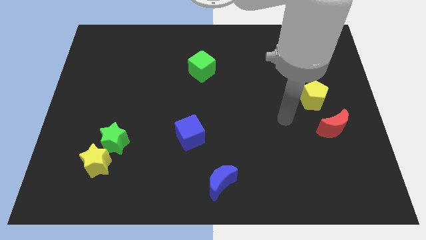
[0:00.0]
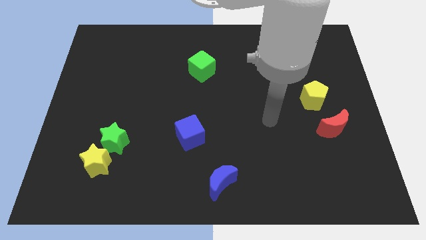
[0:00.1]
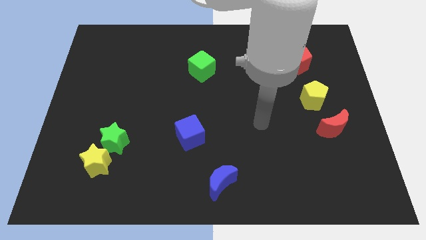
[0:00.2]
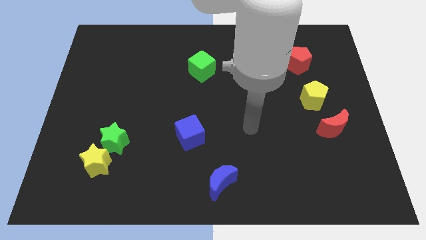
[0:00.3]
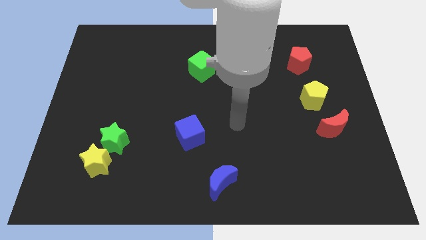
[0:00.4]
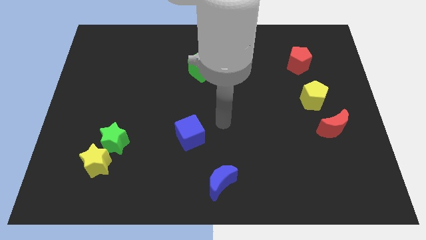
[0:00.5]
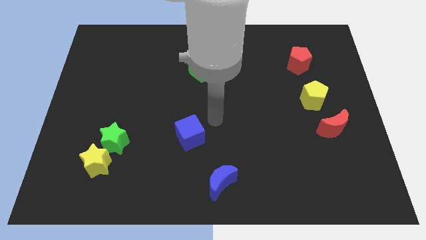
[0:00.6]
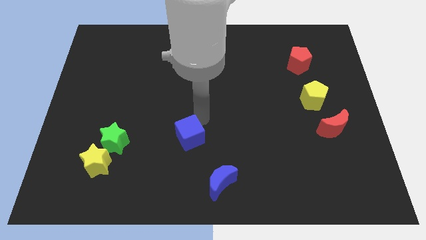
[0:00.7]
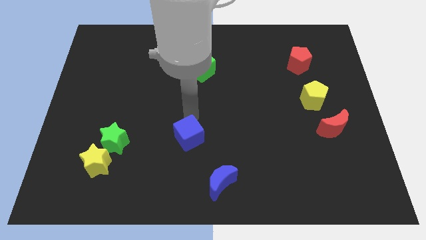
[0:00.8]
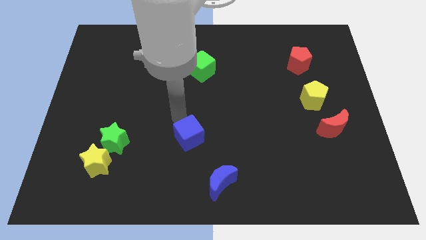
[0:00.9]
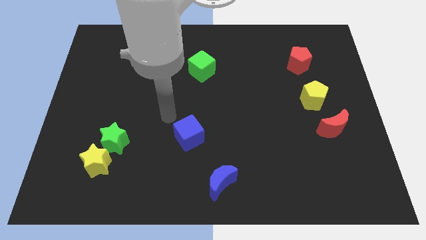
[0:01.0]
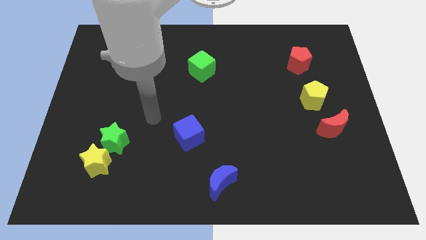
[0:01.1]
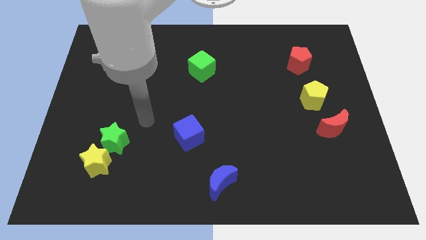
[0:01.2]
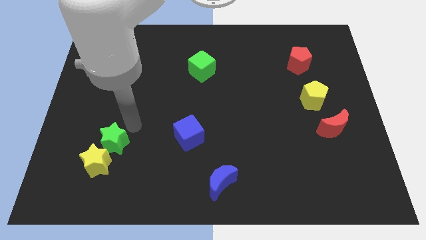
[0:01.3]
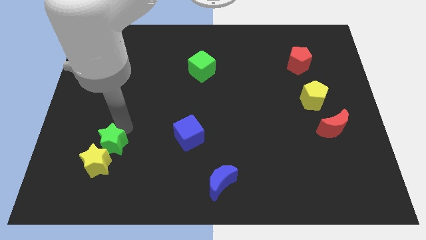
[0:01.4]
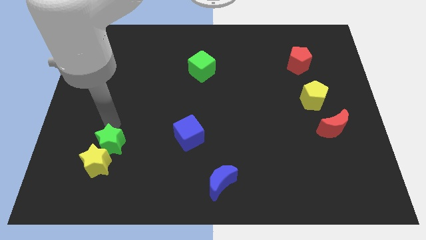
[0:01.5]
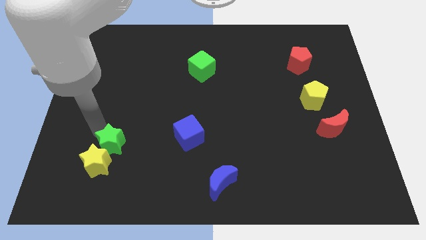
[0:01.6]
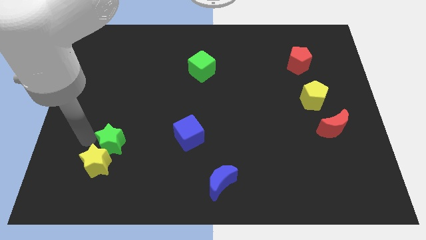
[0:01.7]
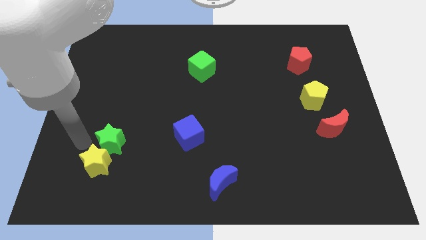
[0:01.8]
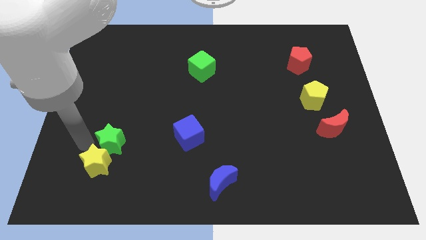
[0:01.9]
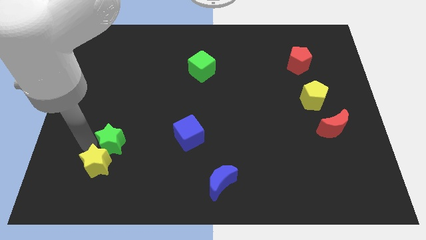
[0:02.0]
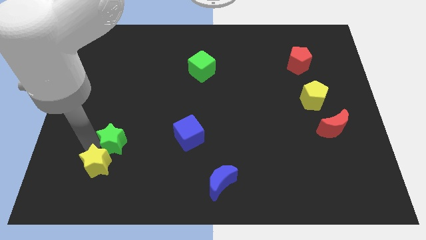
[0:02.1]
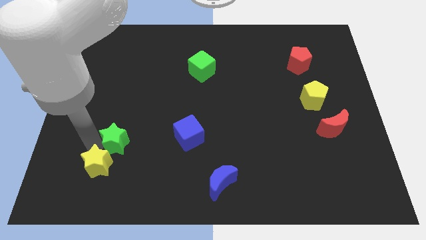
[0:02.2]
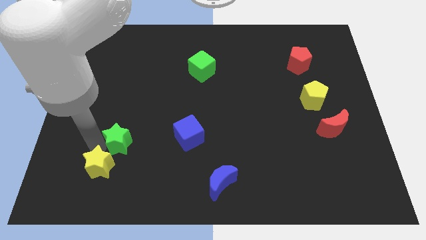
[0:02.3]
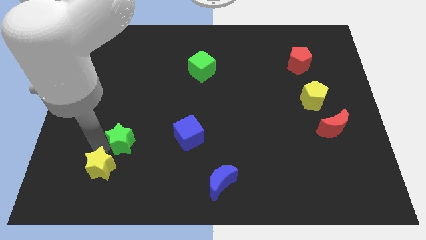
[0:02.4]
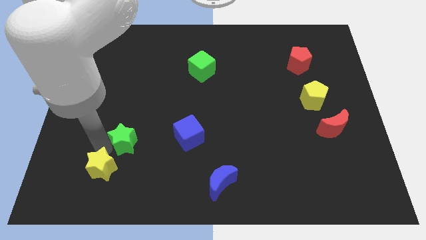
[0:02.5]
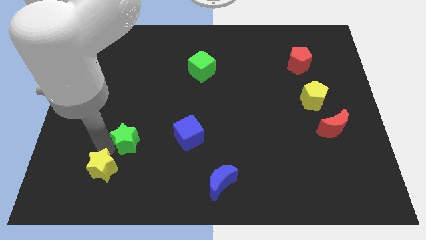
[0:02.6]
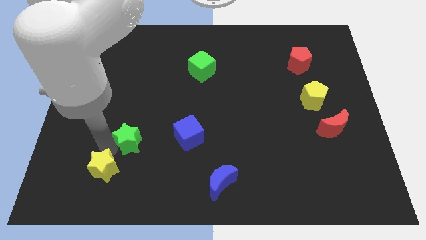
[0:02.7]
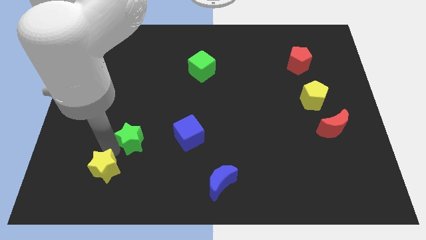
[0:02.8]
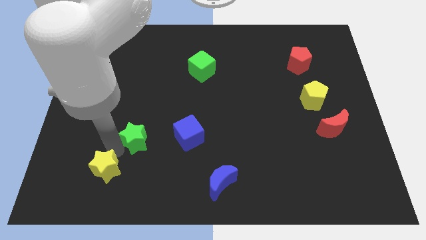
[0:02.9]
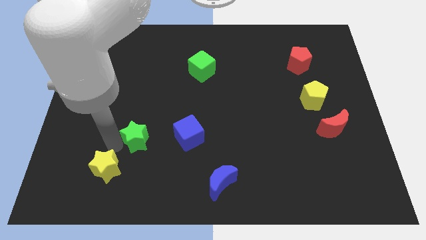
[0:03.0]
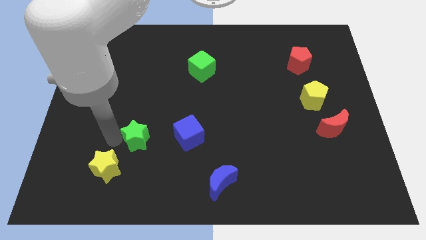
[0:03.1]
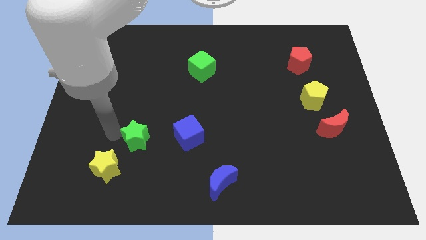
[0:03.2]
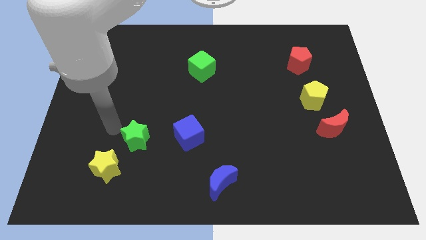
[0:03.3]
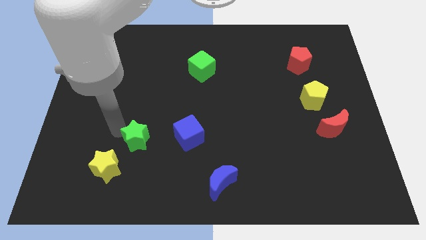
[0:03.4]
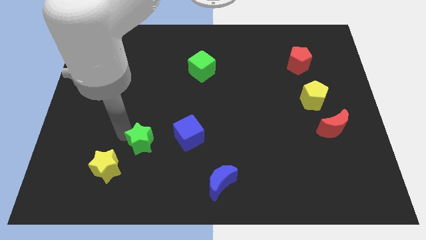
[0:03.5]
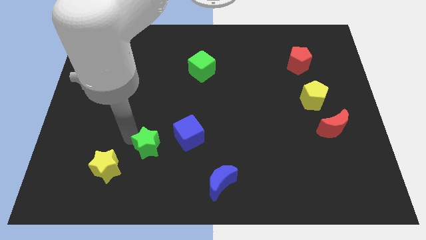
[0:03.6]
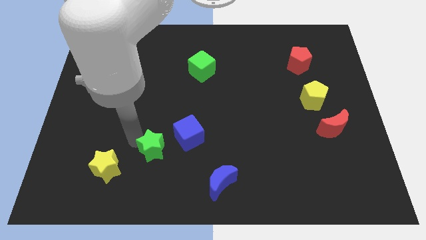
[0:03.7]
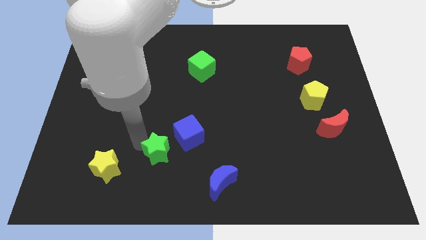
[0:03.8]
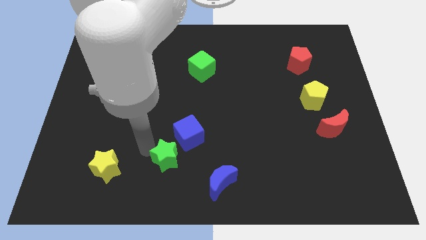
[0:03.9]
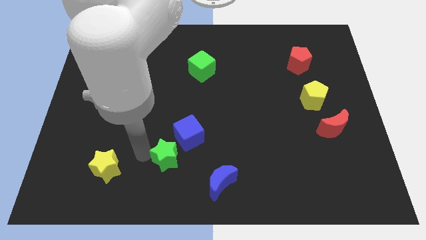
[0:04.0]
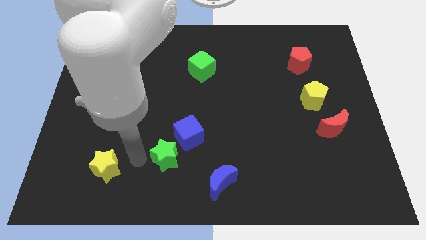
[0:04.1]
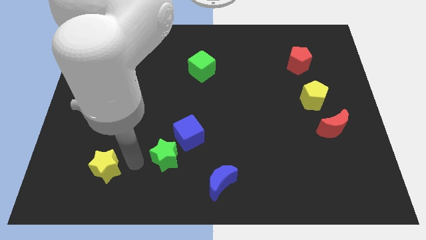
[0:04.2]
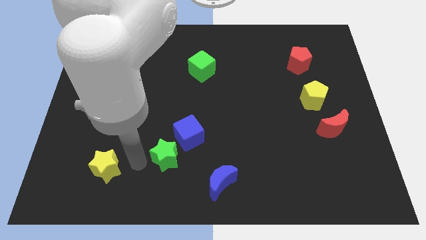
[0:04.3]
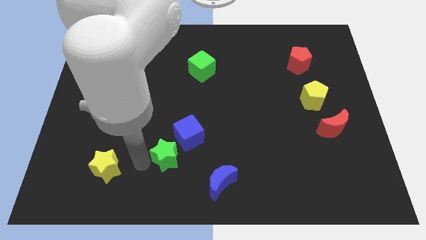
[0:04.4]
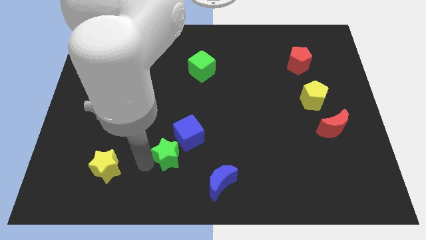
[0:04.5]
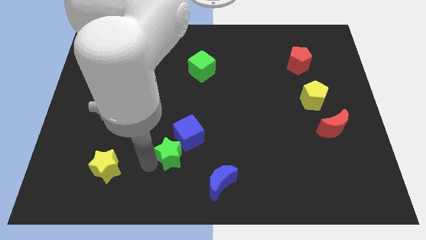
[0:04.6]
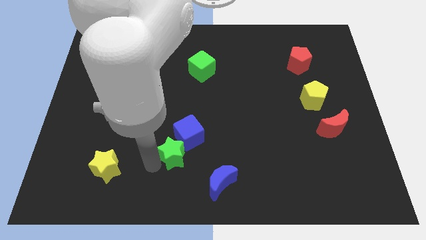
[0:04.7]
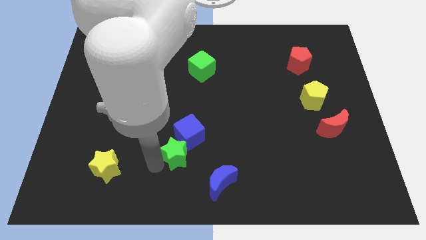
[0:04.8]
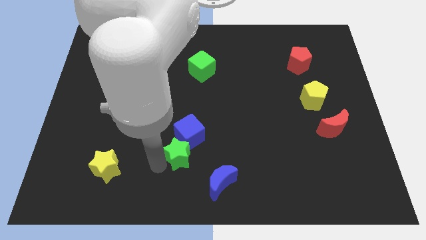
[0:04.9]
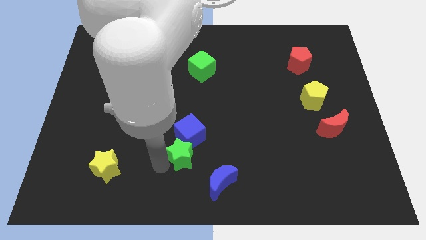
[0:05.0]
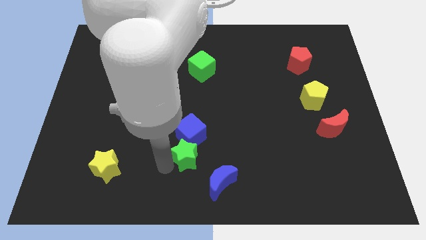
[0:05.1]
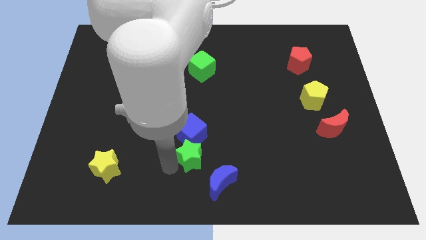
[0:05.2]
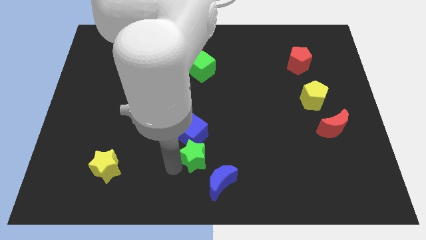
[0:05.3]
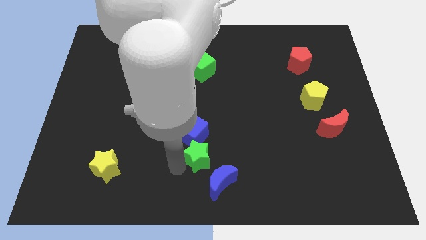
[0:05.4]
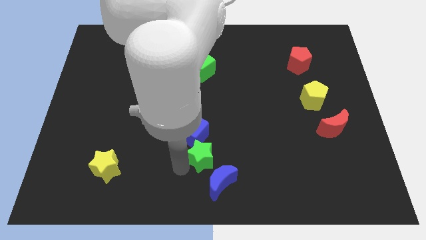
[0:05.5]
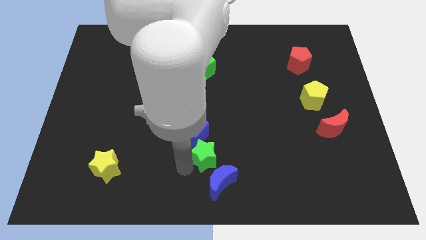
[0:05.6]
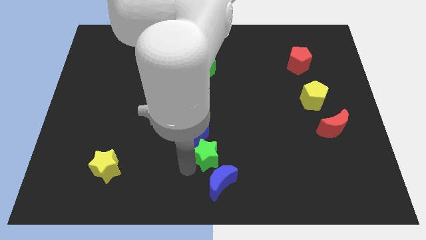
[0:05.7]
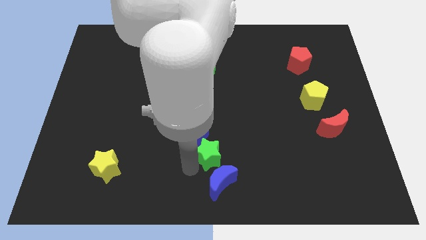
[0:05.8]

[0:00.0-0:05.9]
move the green star right

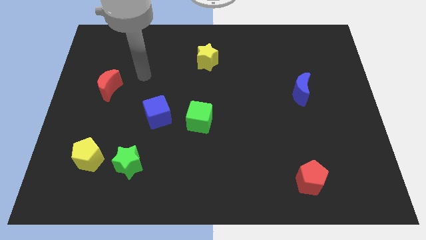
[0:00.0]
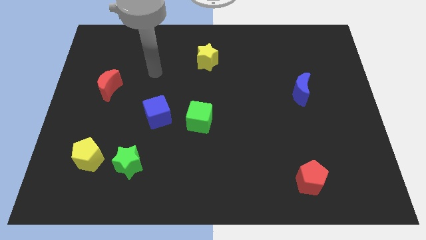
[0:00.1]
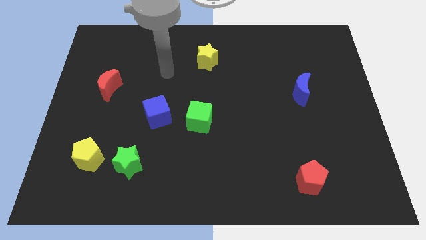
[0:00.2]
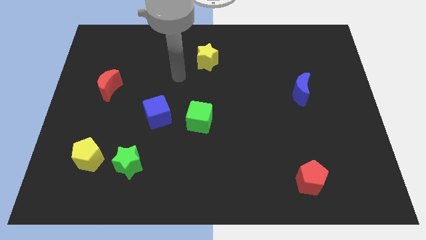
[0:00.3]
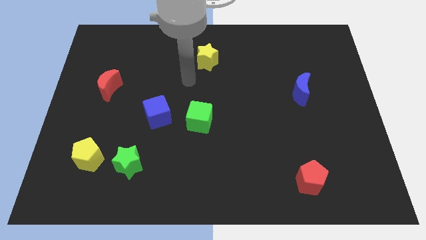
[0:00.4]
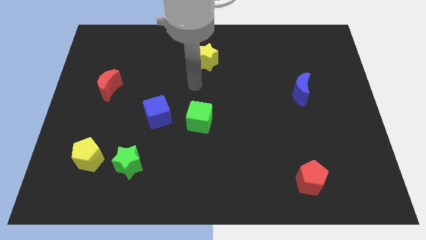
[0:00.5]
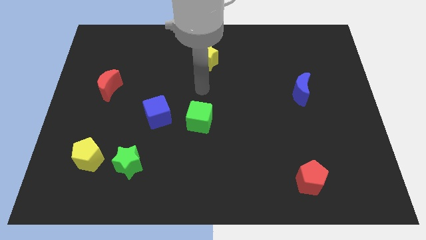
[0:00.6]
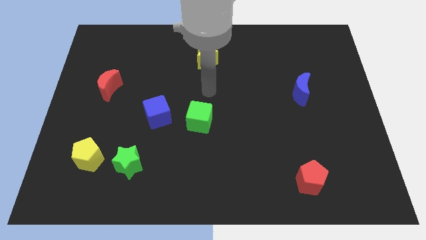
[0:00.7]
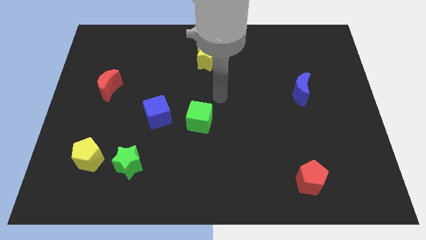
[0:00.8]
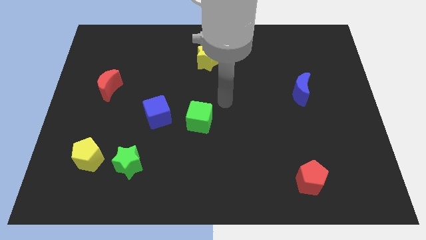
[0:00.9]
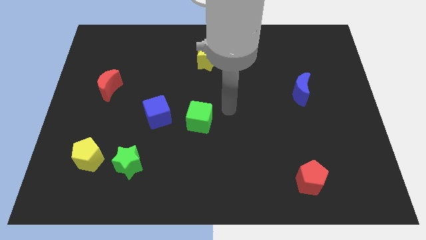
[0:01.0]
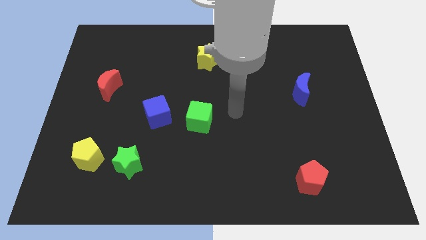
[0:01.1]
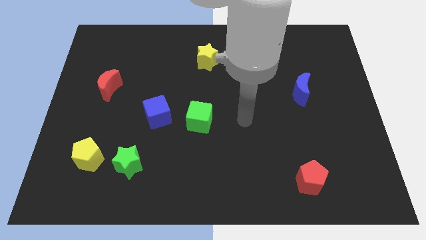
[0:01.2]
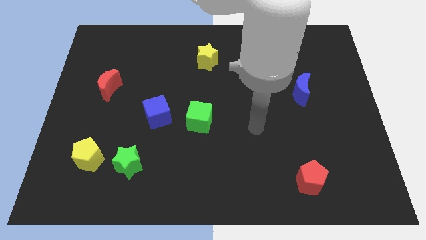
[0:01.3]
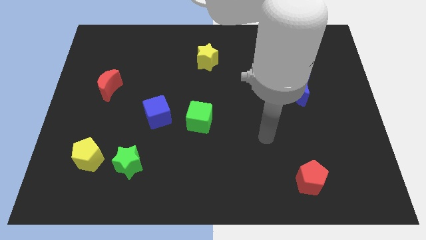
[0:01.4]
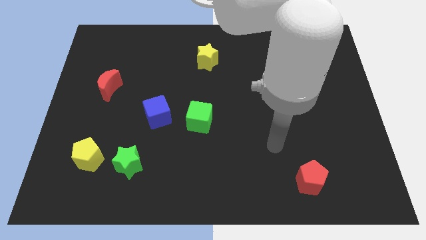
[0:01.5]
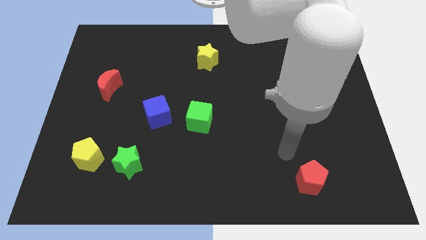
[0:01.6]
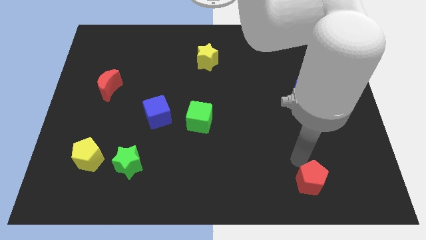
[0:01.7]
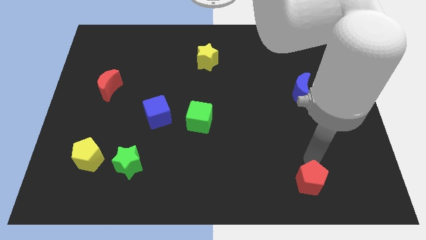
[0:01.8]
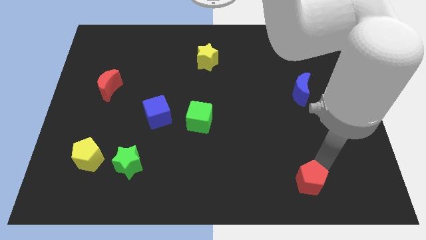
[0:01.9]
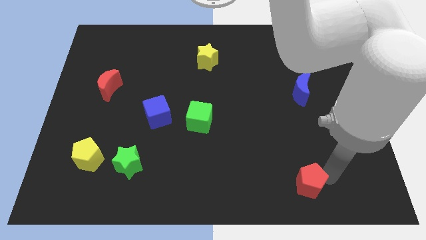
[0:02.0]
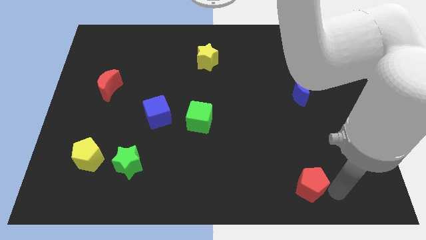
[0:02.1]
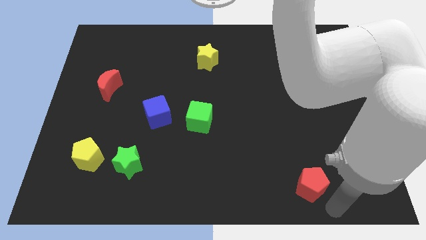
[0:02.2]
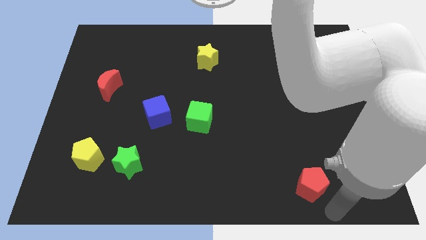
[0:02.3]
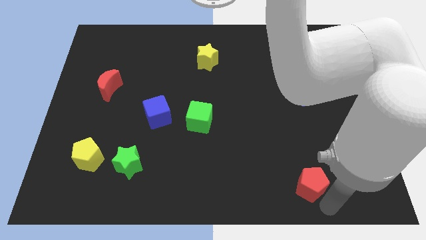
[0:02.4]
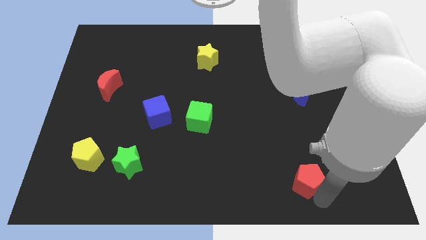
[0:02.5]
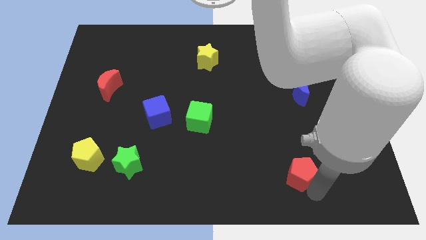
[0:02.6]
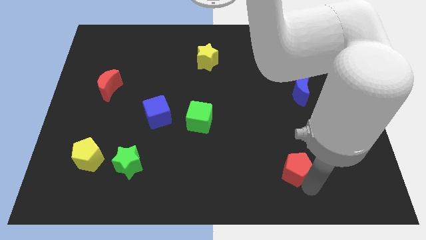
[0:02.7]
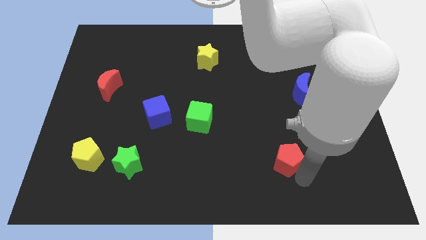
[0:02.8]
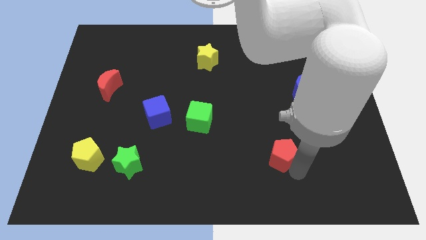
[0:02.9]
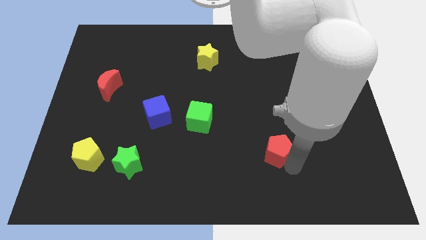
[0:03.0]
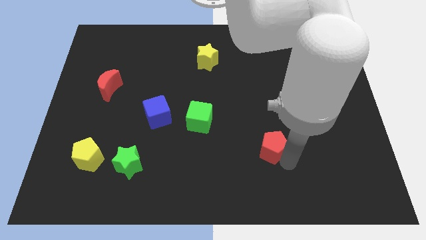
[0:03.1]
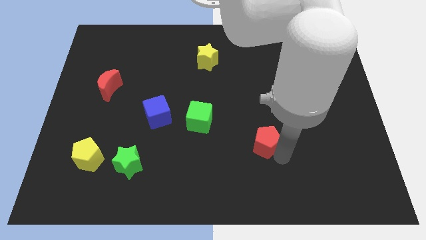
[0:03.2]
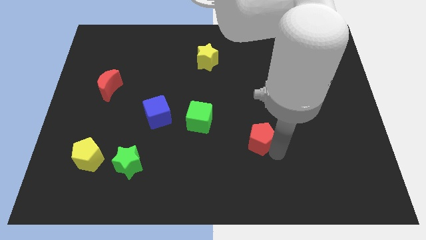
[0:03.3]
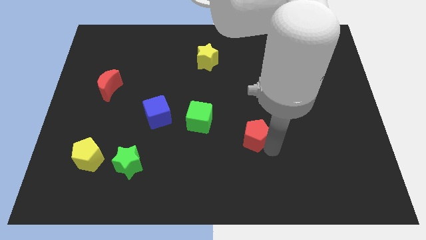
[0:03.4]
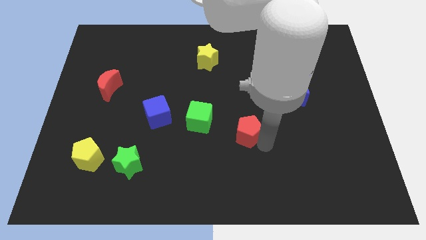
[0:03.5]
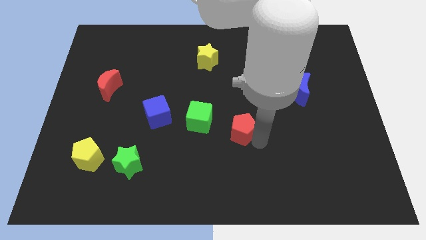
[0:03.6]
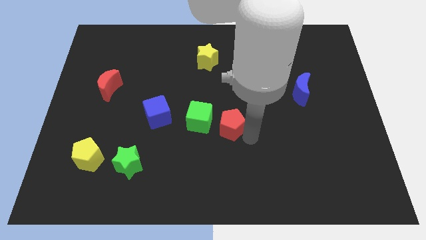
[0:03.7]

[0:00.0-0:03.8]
move the red pentagon up and then to the left
